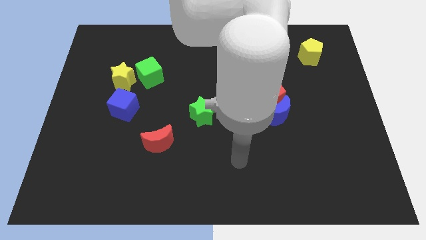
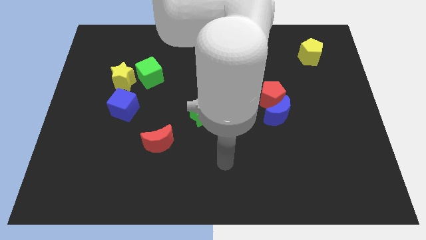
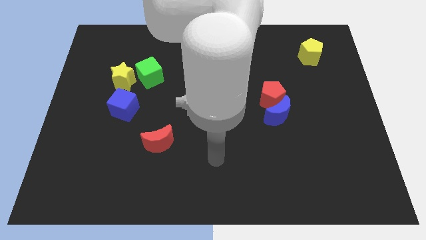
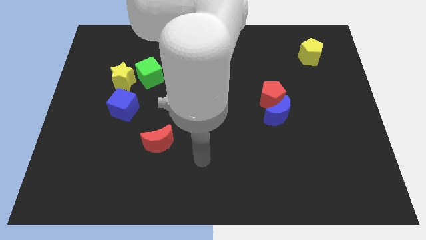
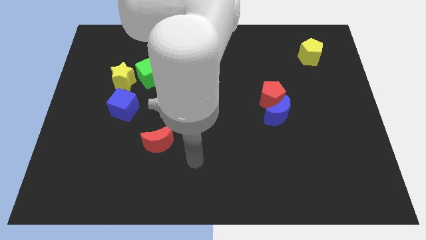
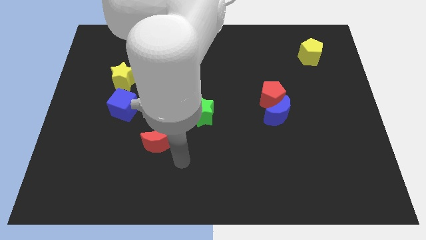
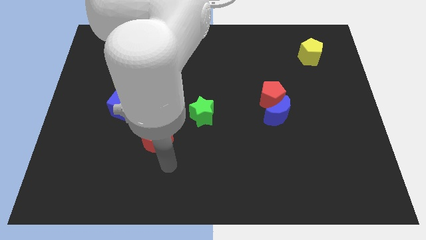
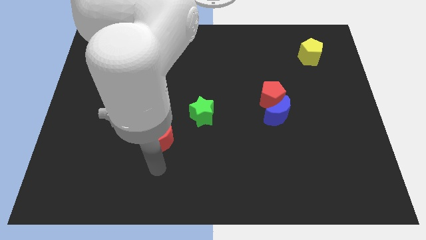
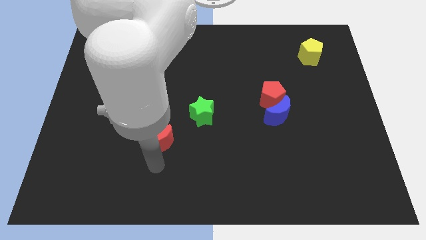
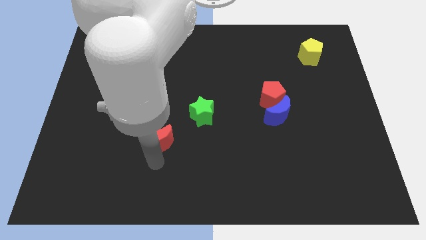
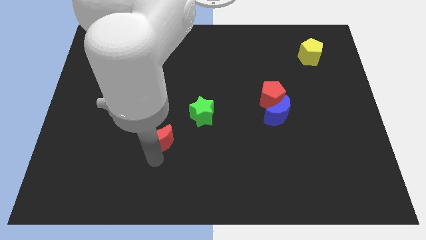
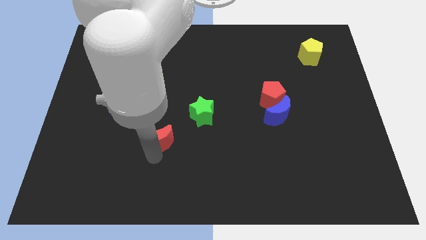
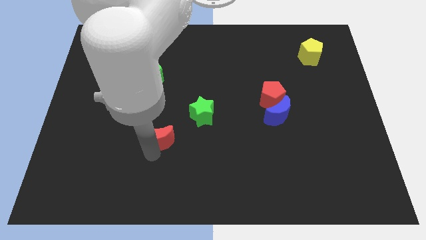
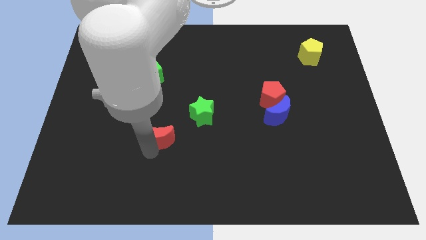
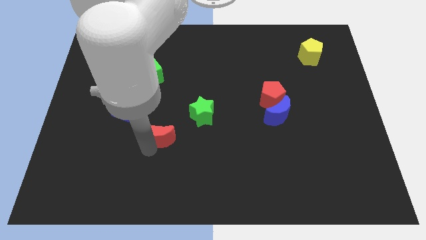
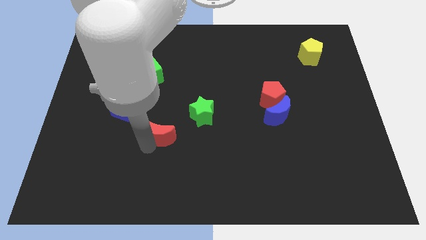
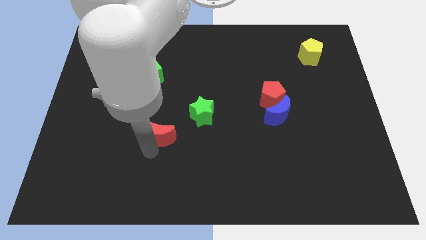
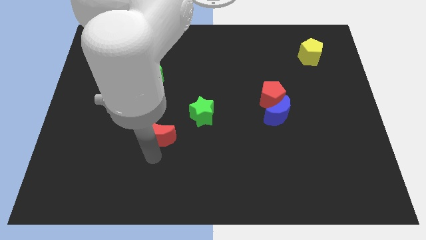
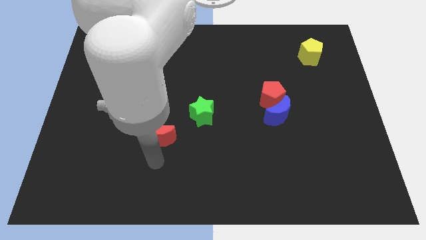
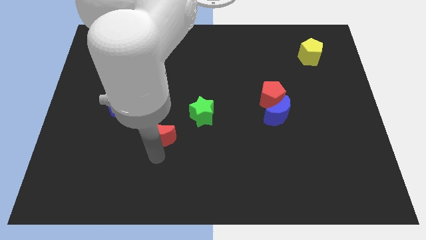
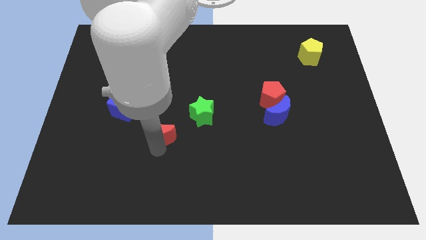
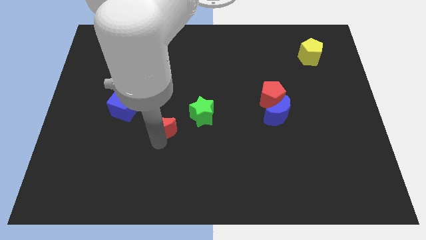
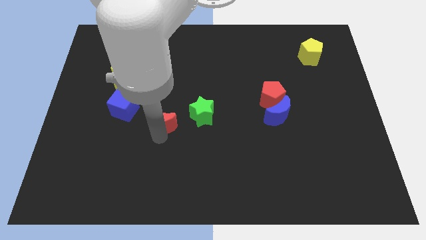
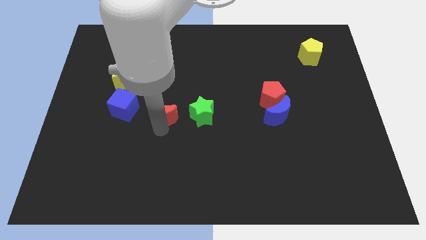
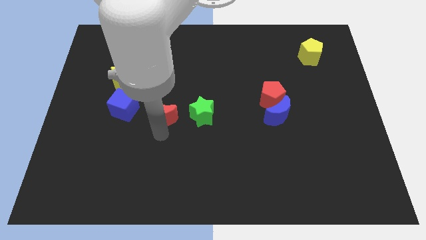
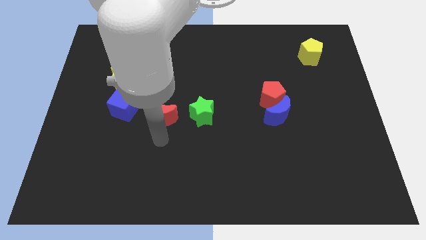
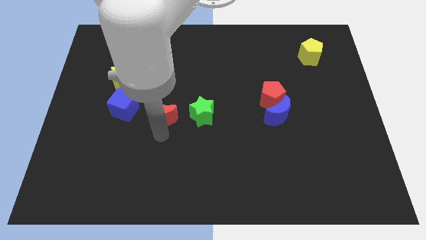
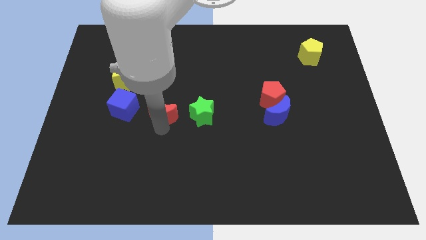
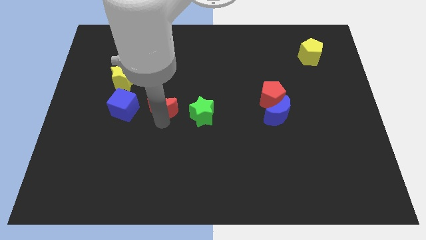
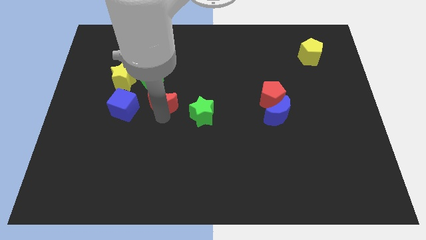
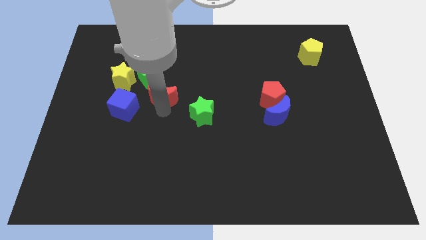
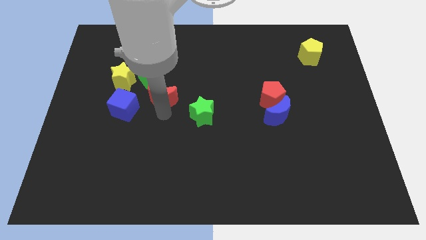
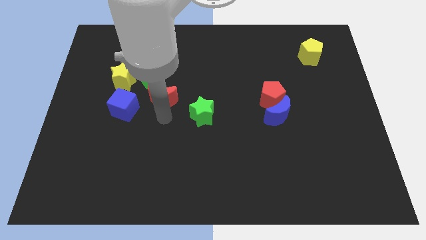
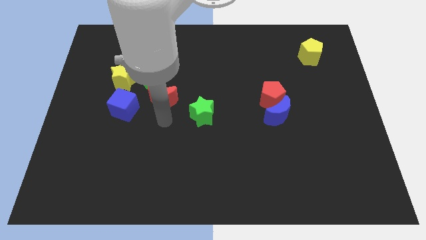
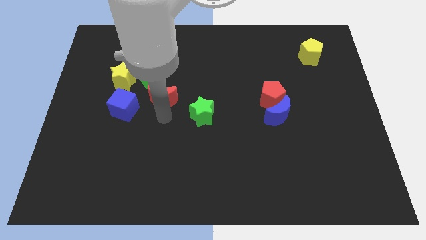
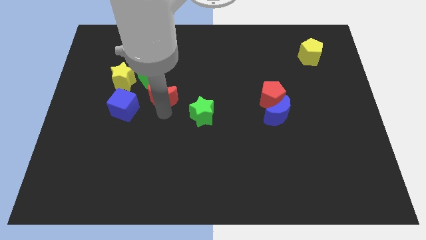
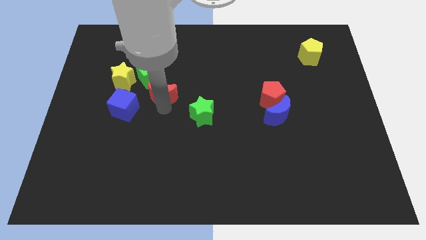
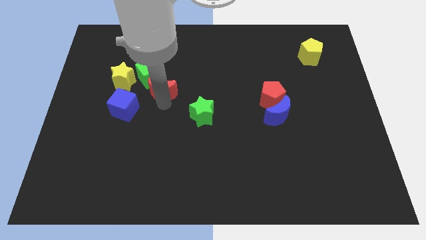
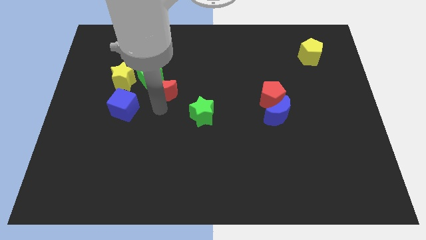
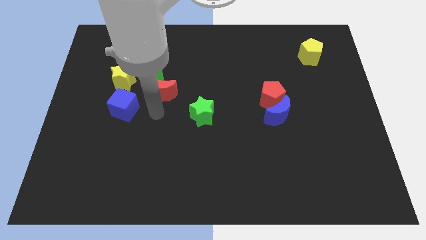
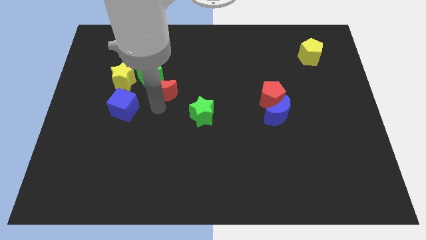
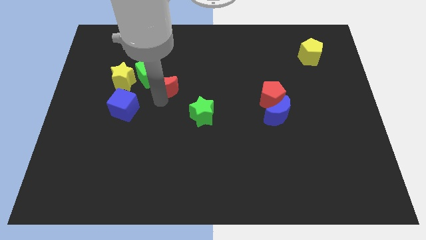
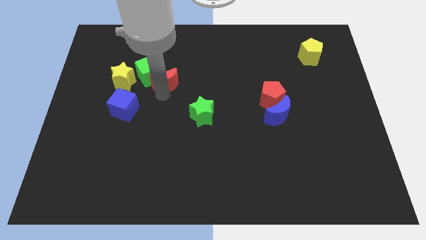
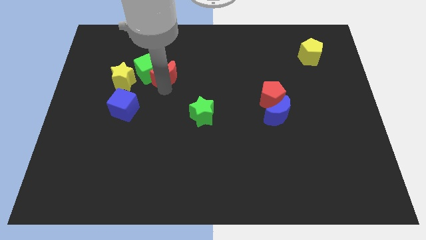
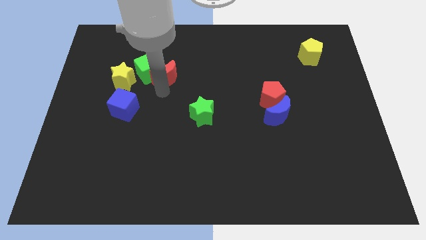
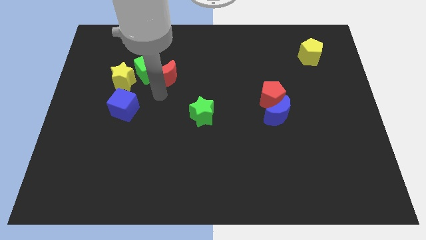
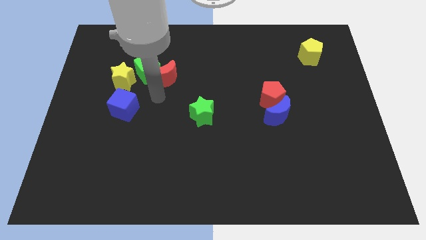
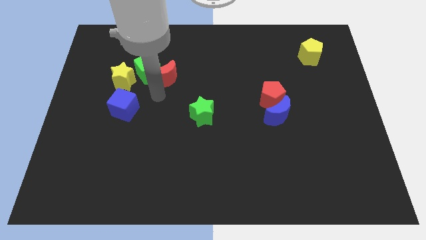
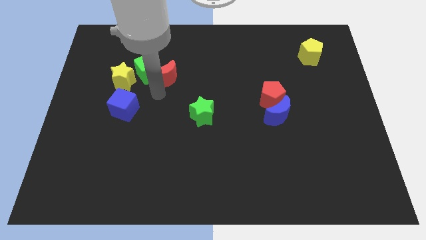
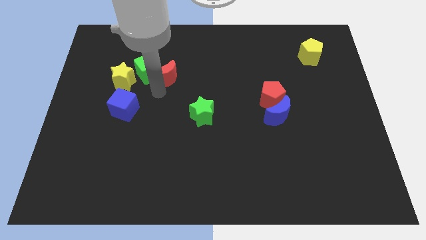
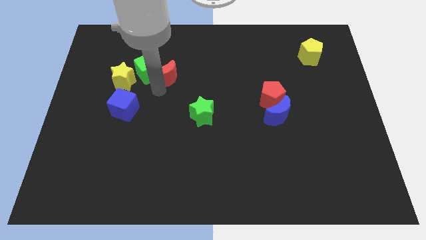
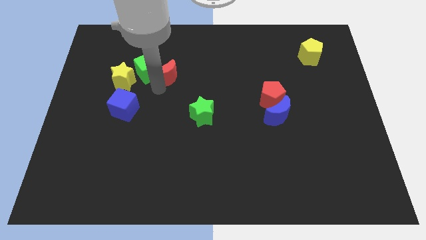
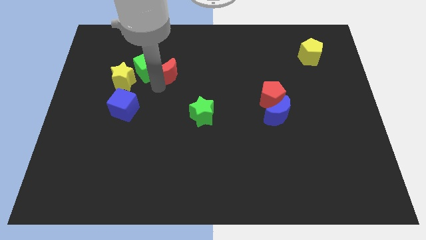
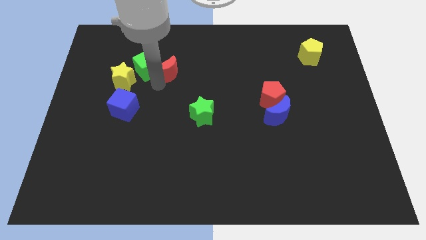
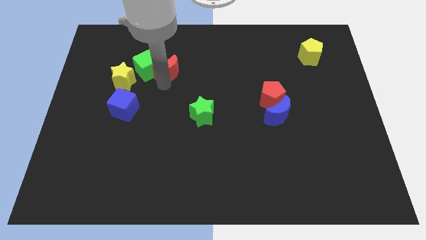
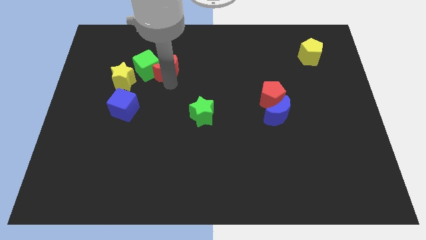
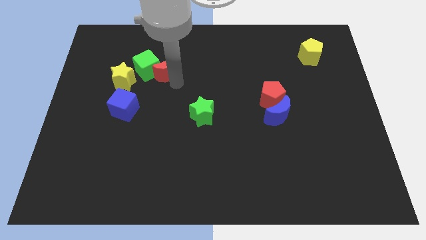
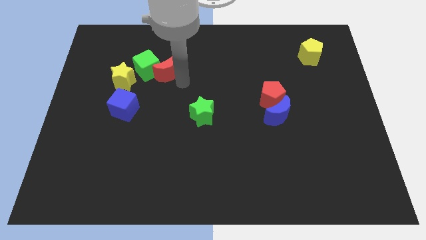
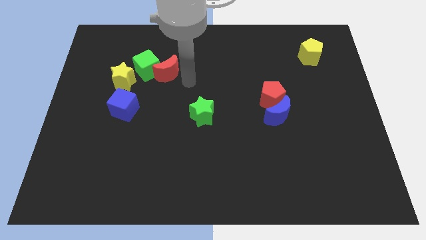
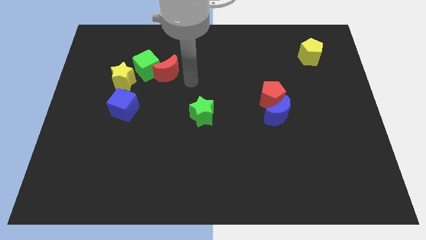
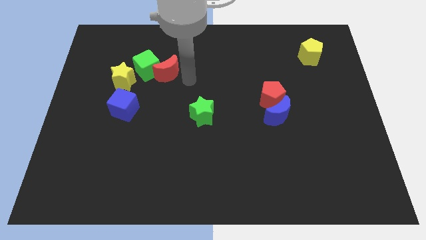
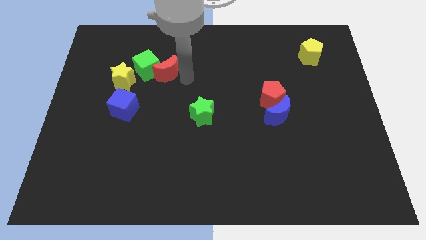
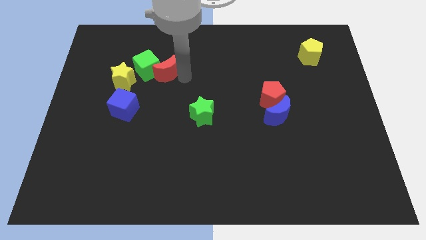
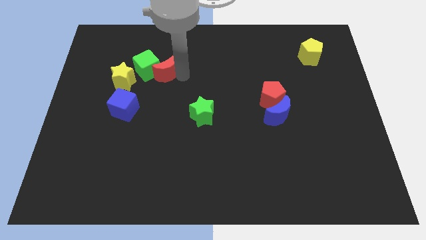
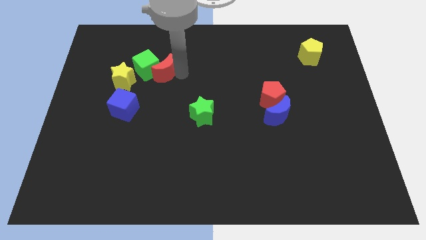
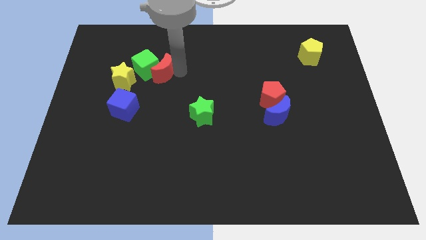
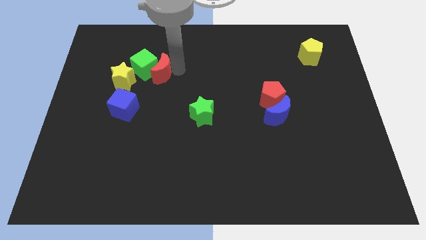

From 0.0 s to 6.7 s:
move the red moon to the top right side of the yellow star

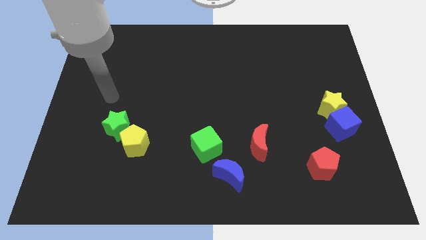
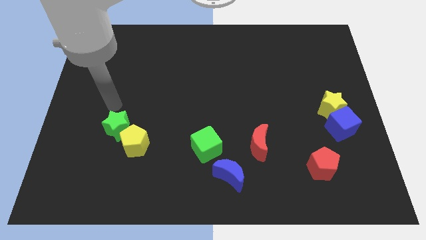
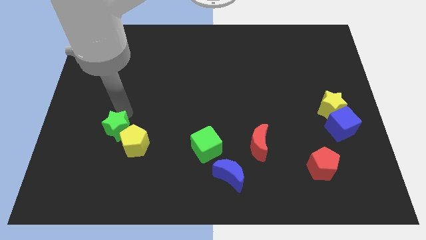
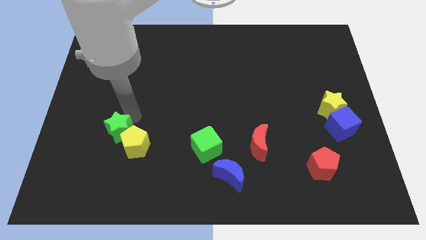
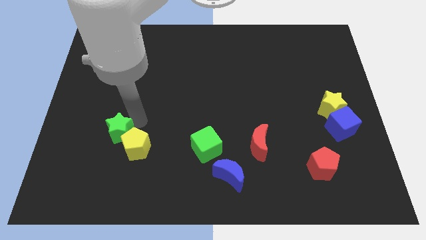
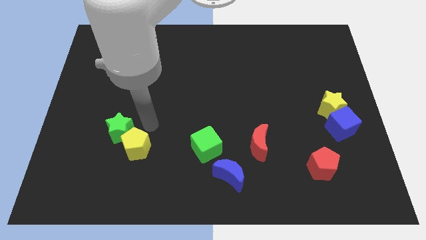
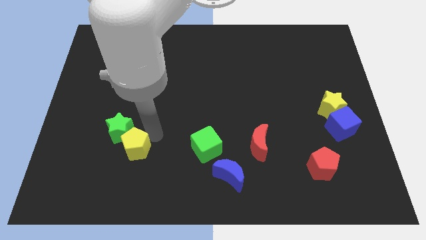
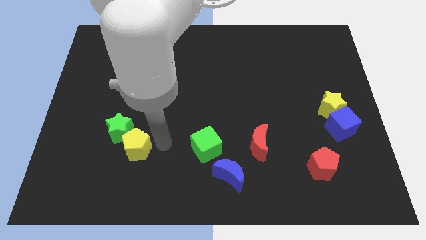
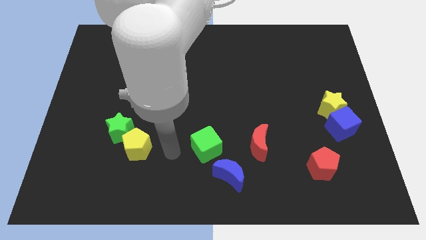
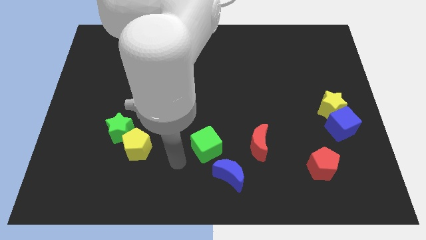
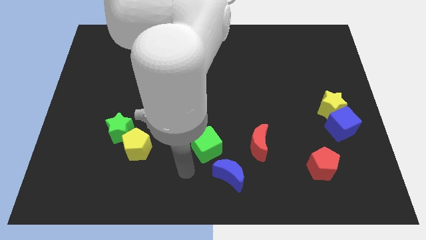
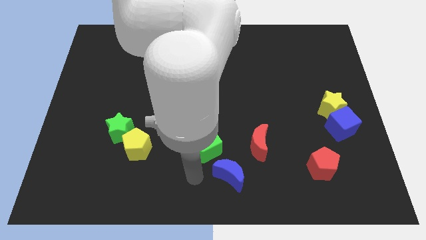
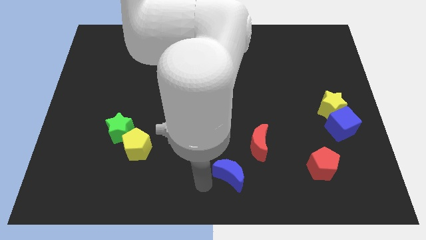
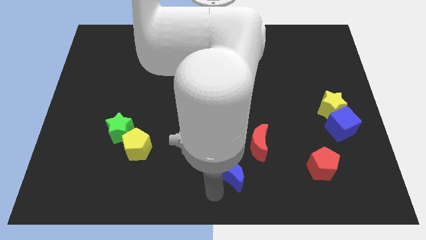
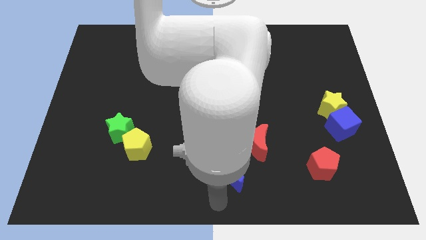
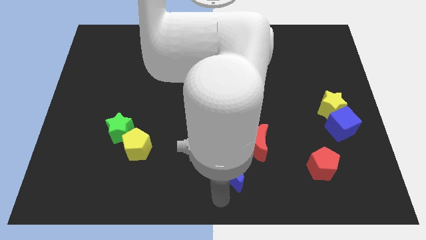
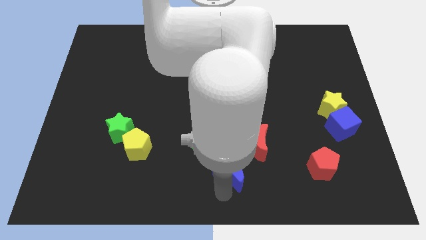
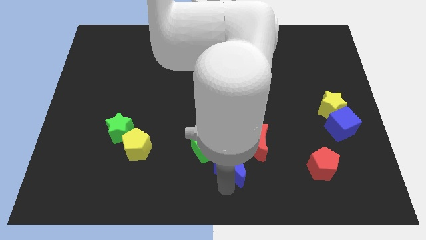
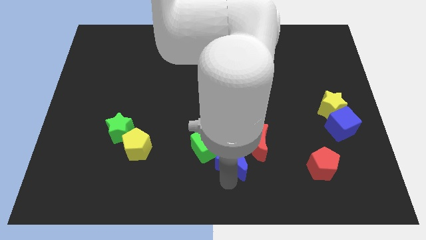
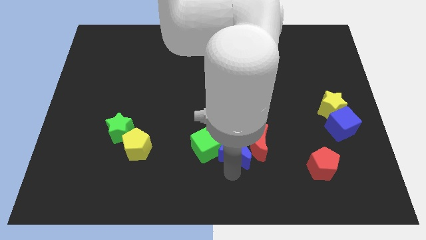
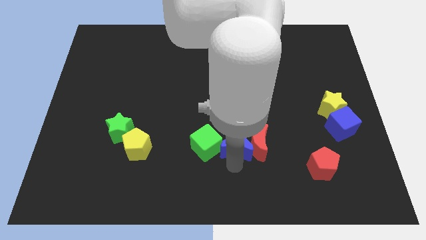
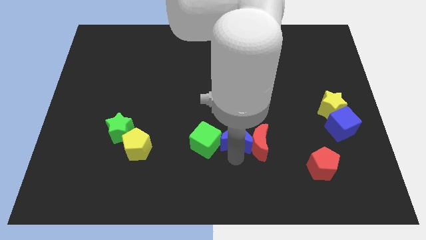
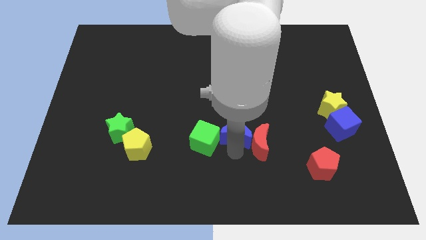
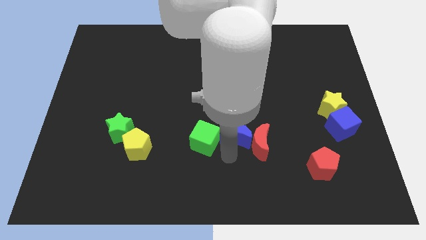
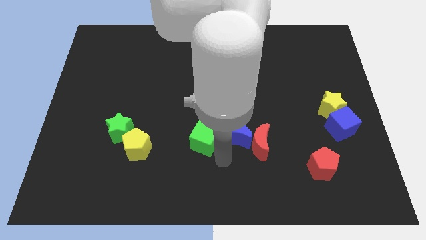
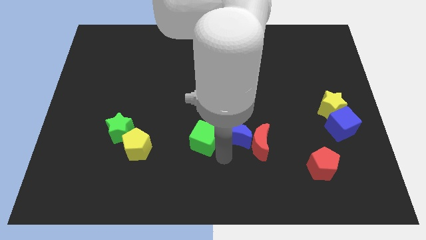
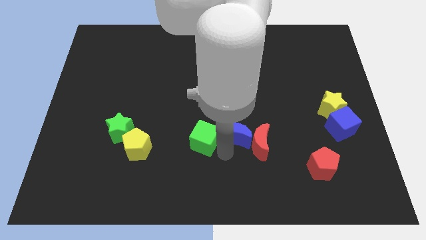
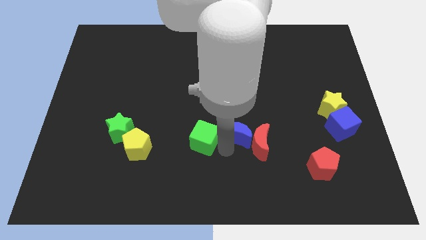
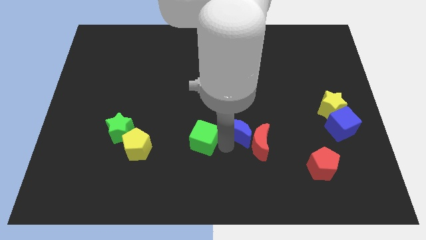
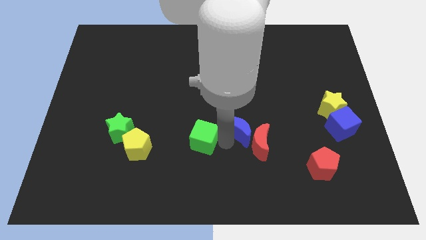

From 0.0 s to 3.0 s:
push the blue moon to the top of the red moon
